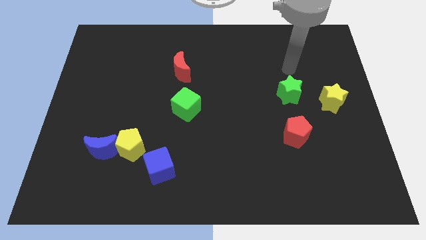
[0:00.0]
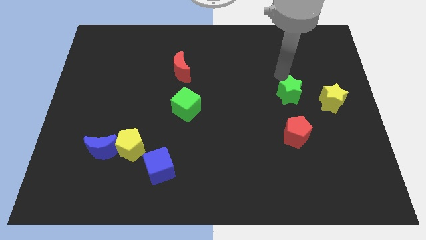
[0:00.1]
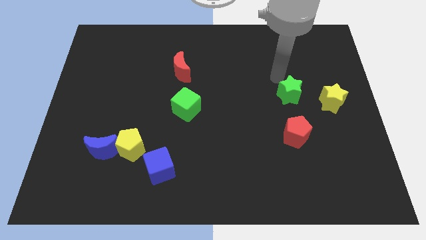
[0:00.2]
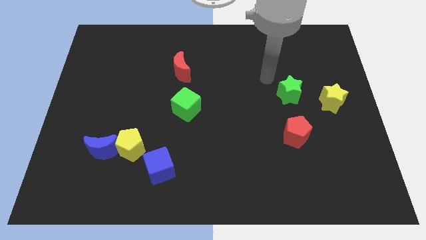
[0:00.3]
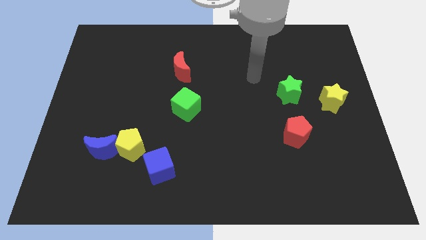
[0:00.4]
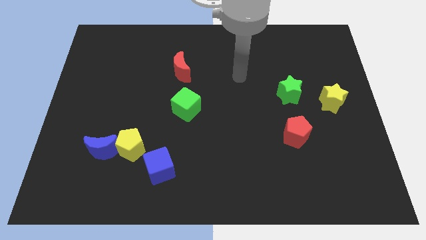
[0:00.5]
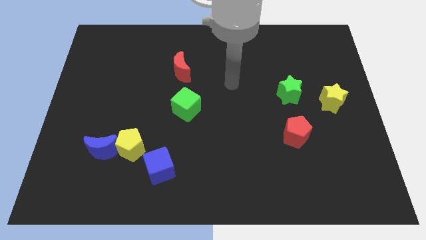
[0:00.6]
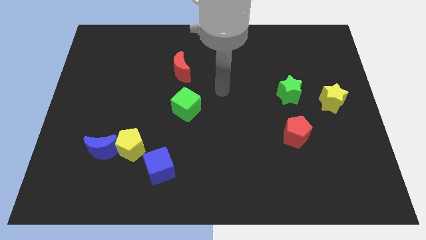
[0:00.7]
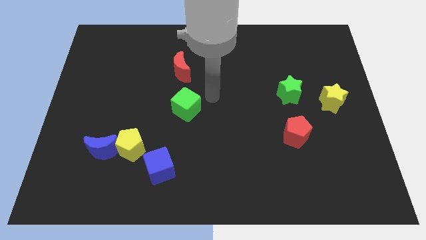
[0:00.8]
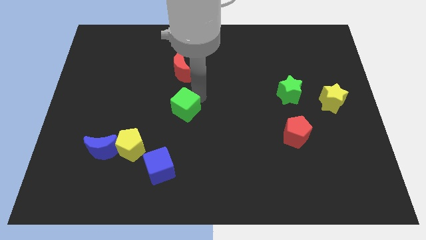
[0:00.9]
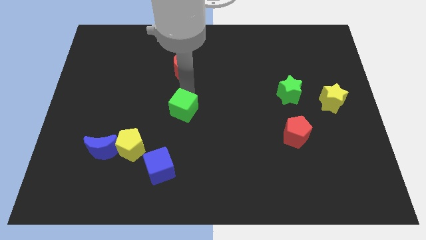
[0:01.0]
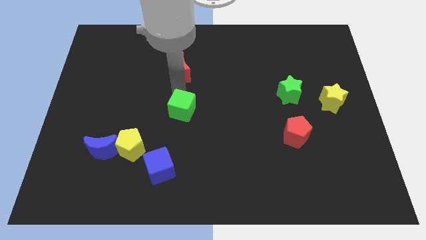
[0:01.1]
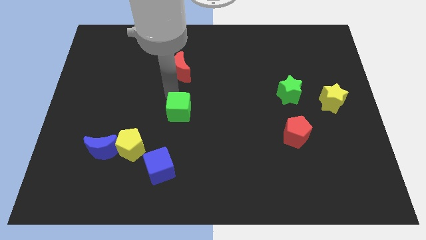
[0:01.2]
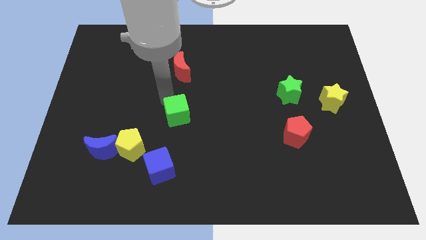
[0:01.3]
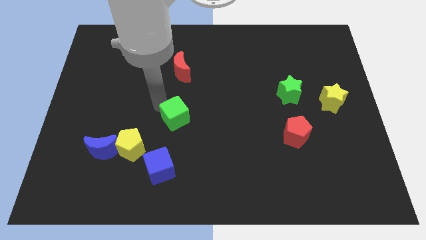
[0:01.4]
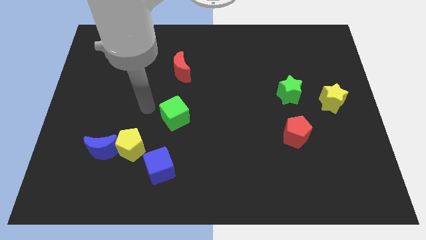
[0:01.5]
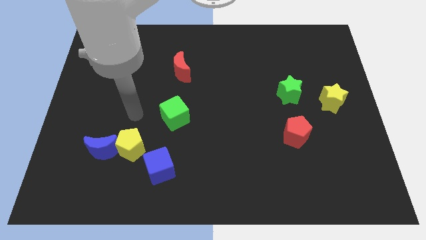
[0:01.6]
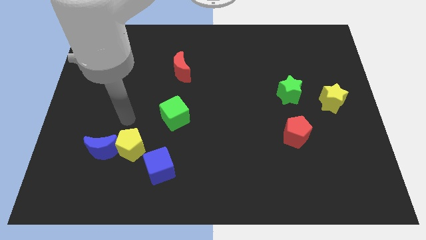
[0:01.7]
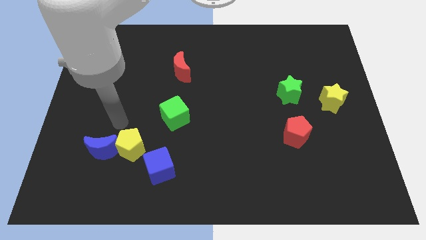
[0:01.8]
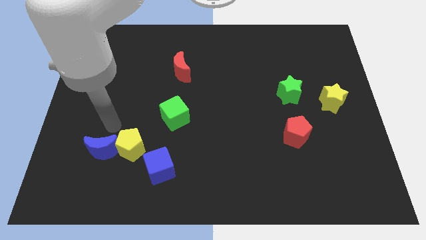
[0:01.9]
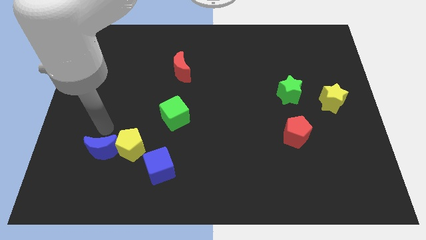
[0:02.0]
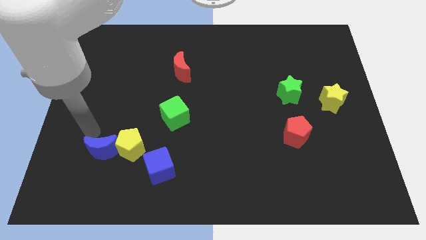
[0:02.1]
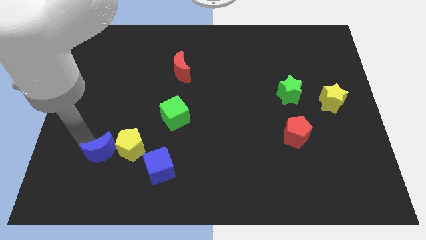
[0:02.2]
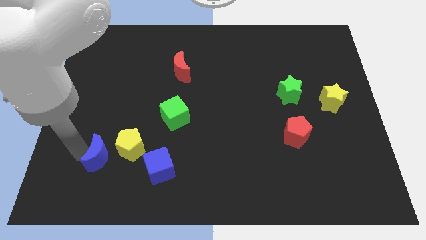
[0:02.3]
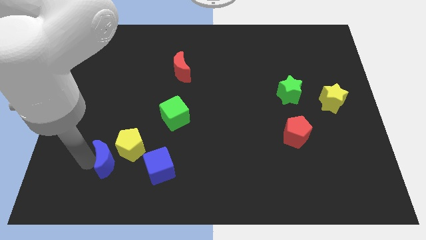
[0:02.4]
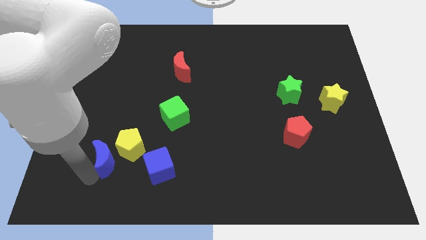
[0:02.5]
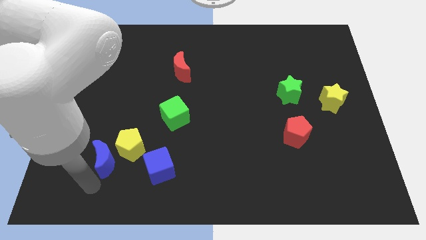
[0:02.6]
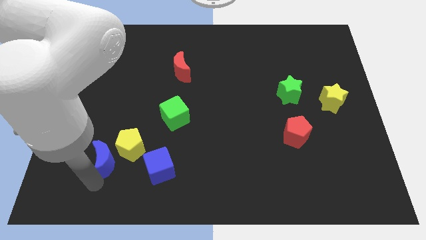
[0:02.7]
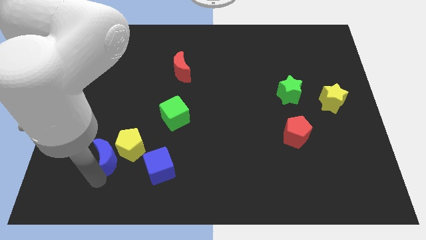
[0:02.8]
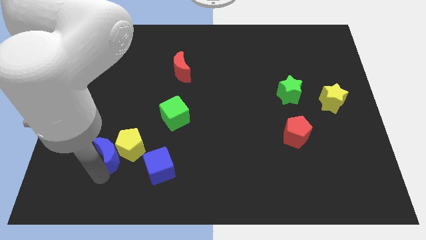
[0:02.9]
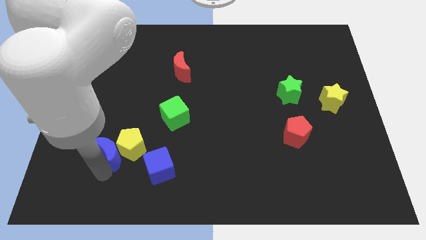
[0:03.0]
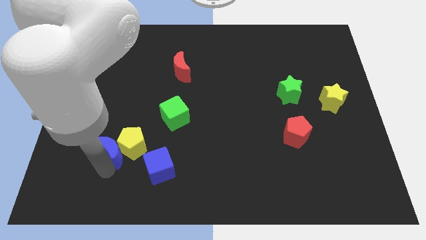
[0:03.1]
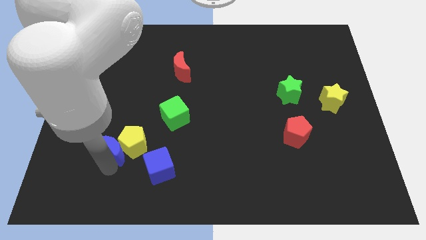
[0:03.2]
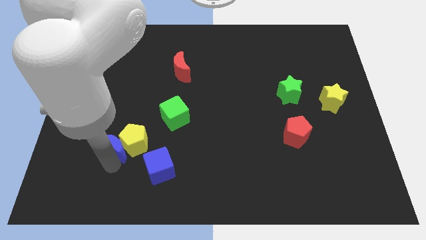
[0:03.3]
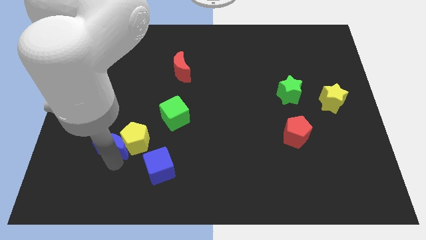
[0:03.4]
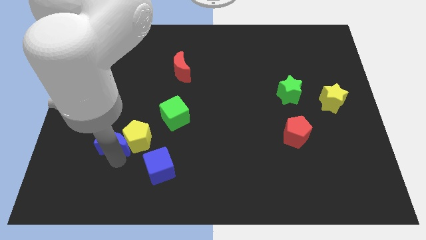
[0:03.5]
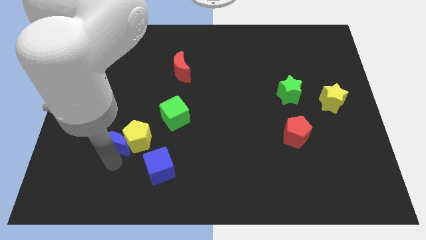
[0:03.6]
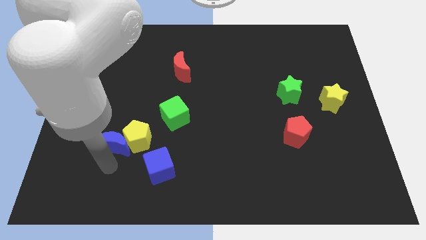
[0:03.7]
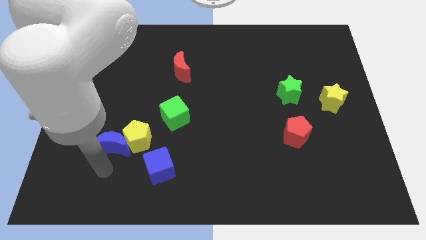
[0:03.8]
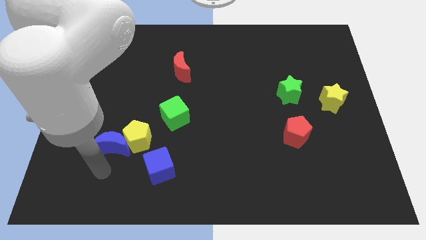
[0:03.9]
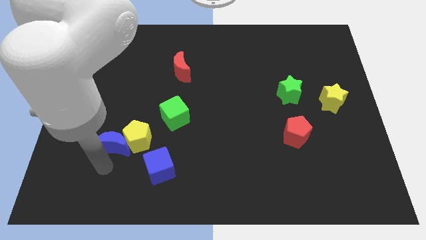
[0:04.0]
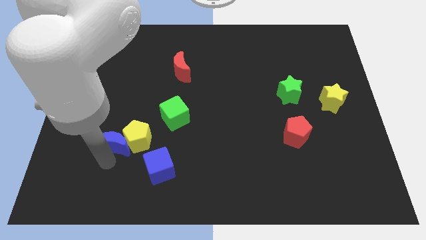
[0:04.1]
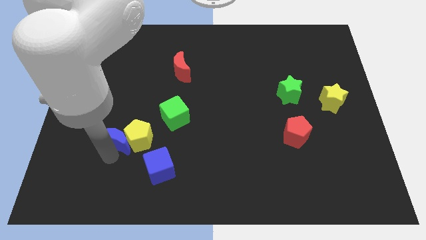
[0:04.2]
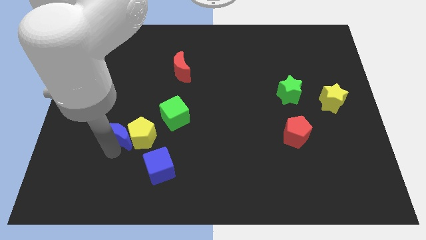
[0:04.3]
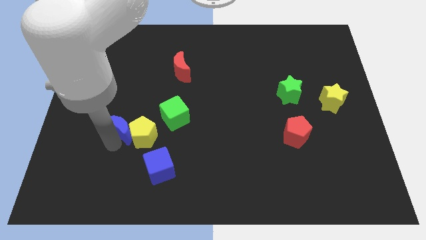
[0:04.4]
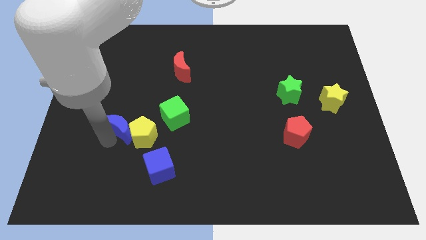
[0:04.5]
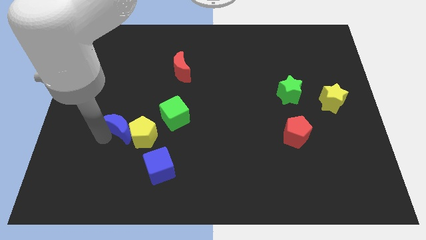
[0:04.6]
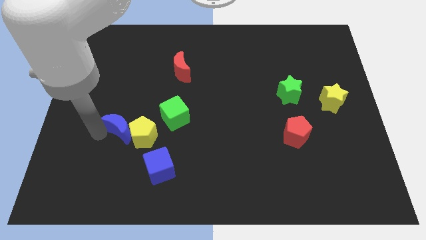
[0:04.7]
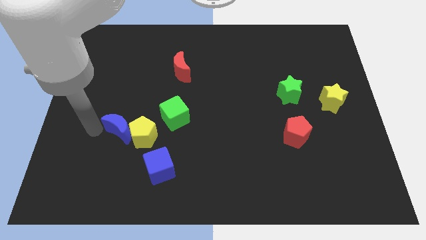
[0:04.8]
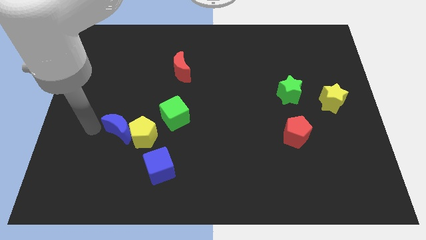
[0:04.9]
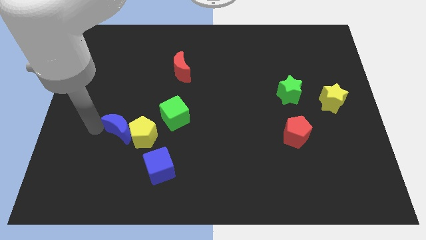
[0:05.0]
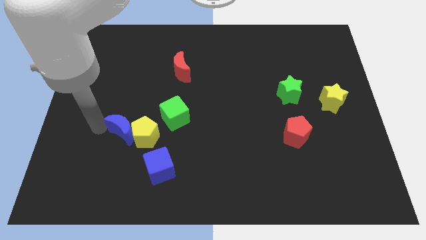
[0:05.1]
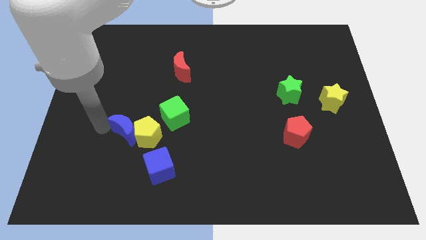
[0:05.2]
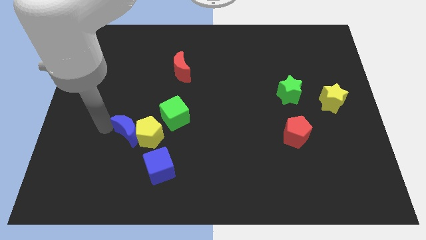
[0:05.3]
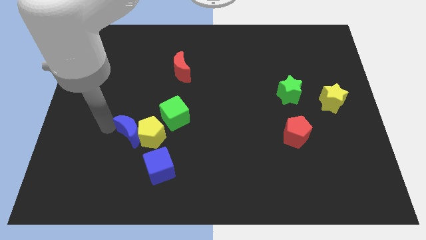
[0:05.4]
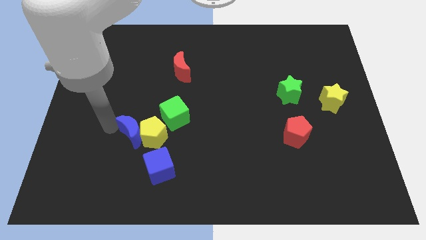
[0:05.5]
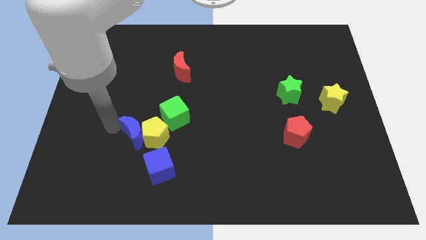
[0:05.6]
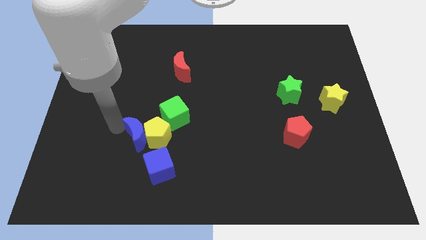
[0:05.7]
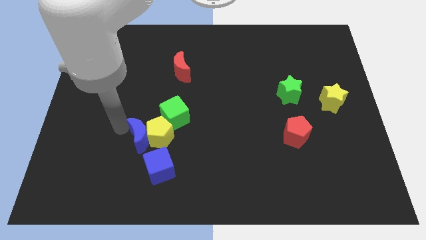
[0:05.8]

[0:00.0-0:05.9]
push the blue moon to the right somewhat

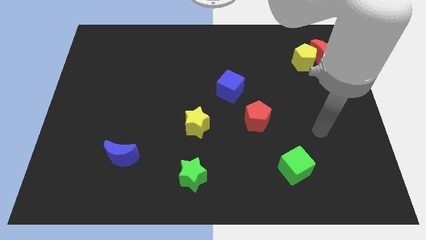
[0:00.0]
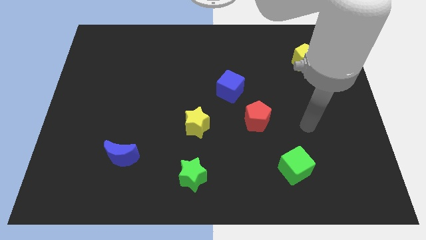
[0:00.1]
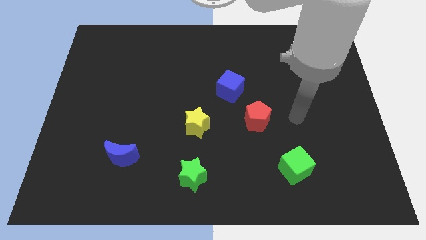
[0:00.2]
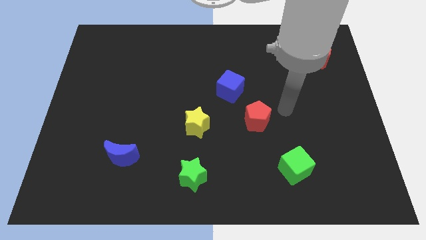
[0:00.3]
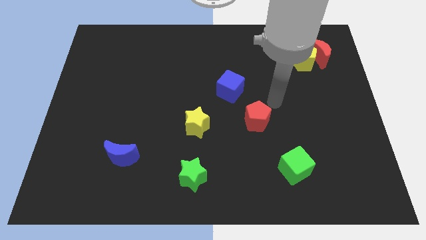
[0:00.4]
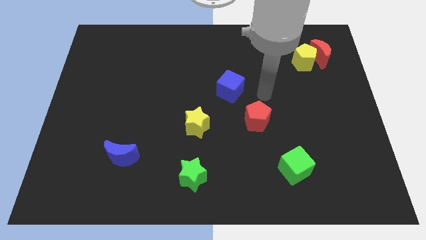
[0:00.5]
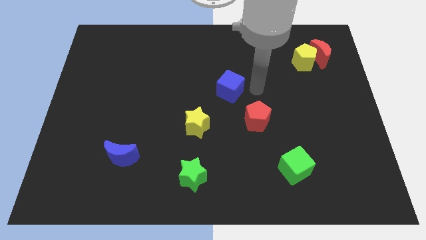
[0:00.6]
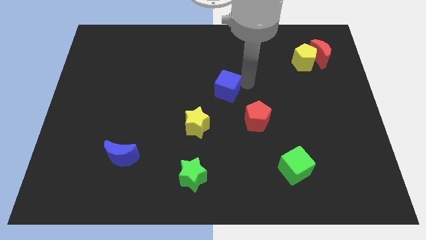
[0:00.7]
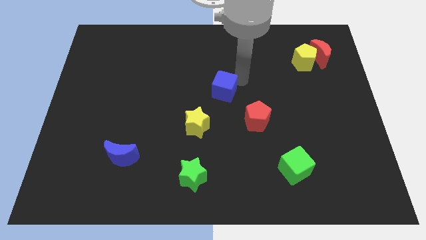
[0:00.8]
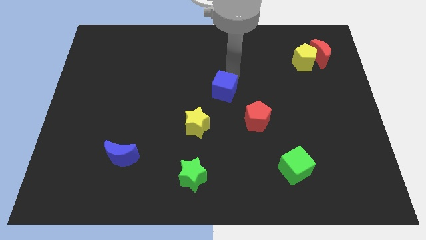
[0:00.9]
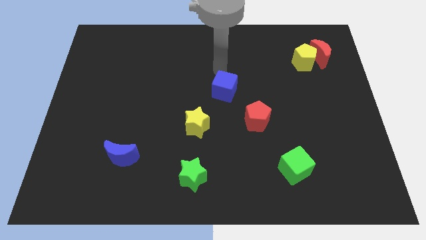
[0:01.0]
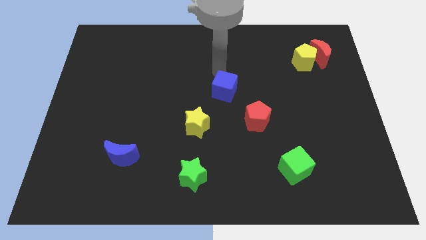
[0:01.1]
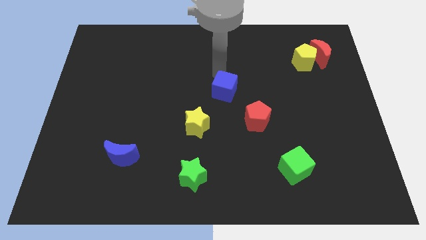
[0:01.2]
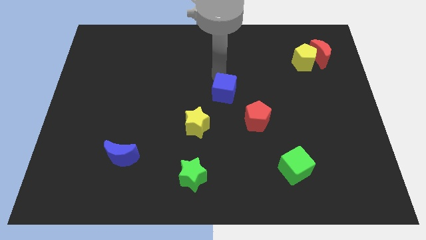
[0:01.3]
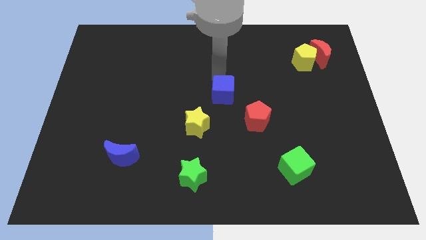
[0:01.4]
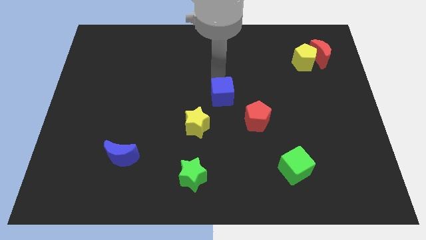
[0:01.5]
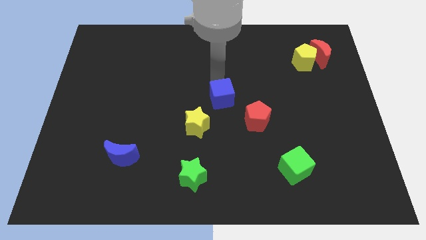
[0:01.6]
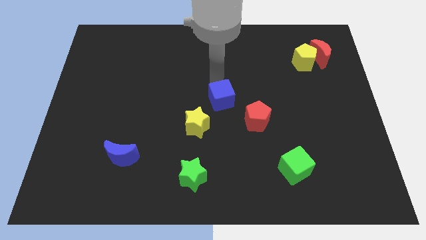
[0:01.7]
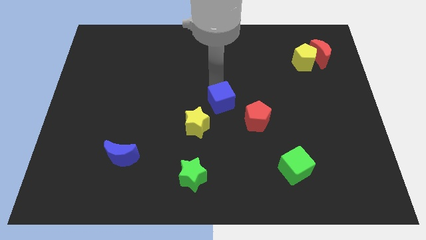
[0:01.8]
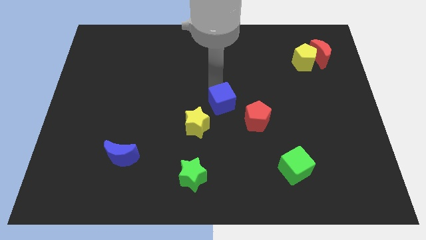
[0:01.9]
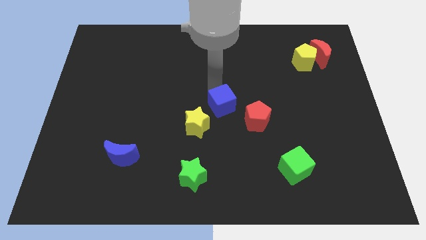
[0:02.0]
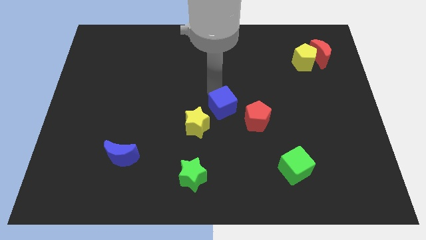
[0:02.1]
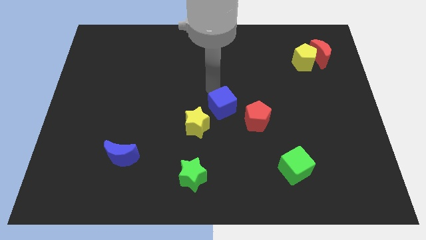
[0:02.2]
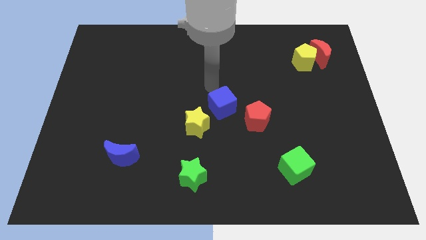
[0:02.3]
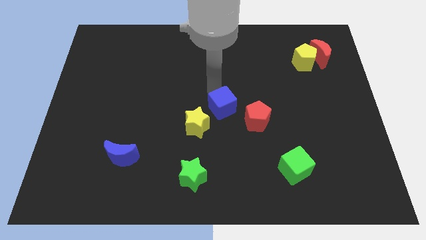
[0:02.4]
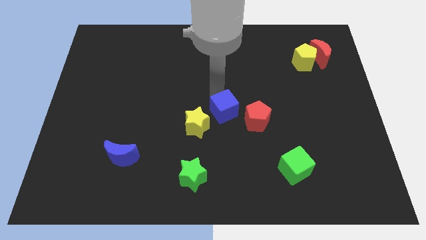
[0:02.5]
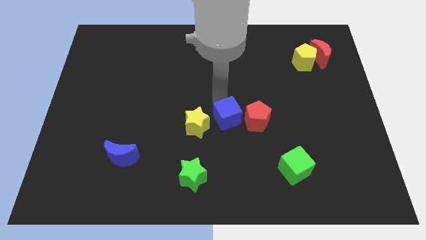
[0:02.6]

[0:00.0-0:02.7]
move the blue cube a bit downwards
